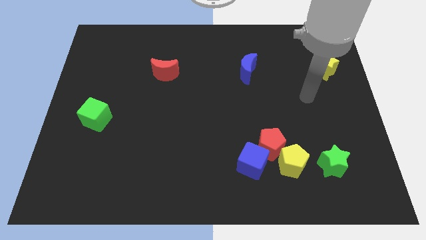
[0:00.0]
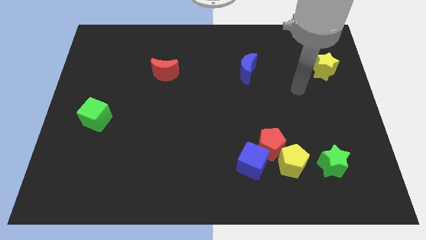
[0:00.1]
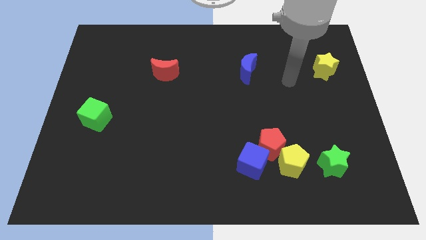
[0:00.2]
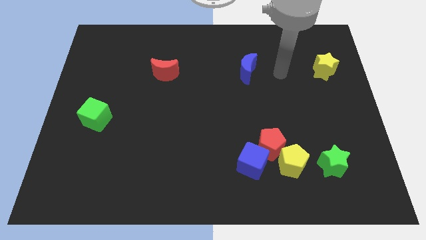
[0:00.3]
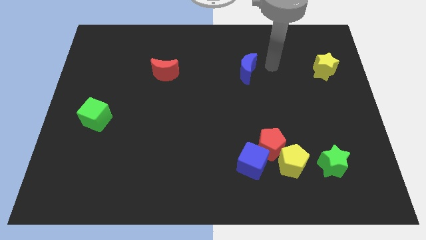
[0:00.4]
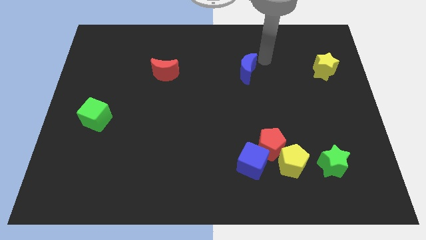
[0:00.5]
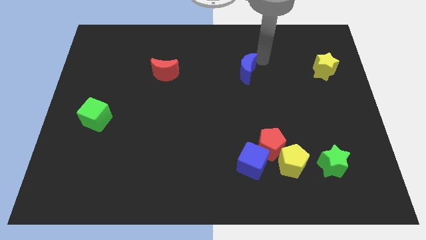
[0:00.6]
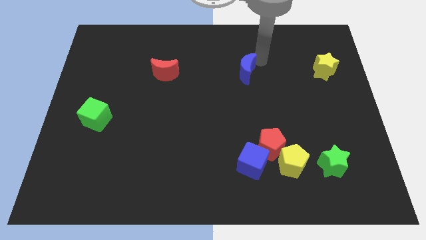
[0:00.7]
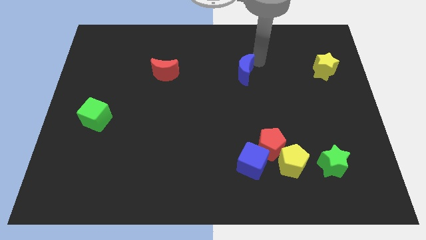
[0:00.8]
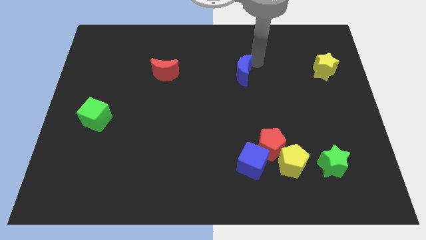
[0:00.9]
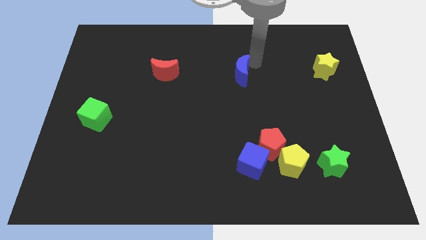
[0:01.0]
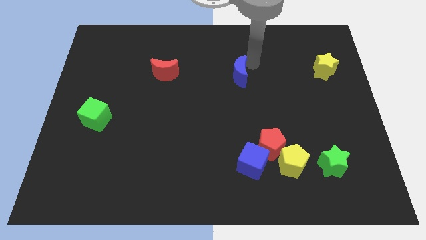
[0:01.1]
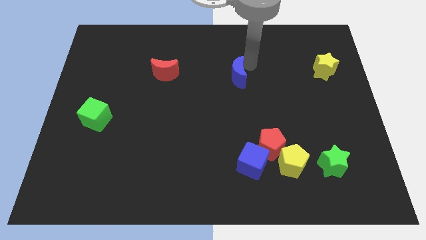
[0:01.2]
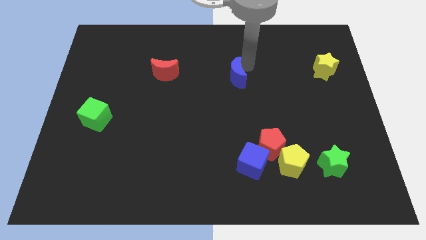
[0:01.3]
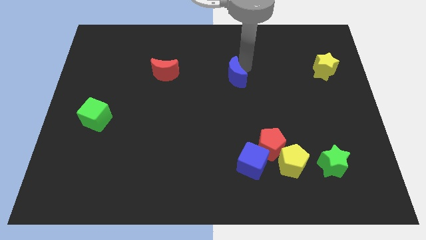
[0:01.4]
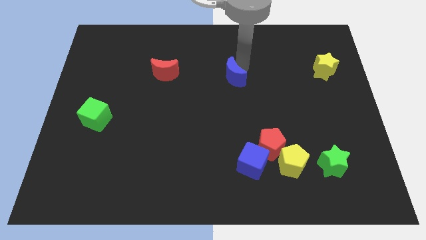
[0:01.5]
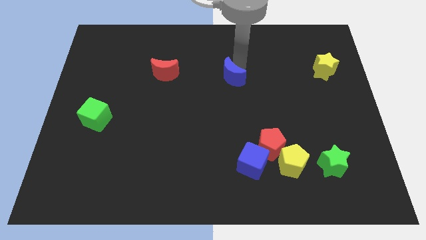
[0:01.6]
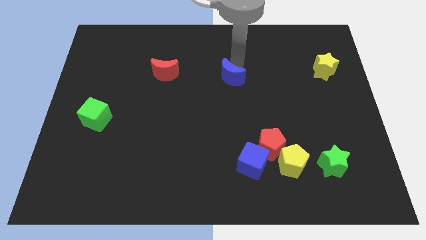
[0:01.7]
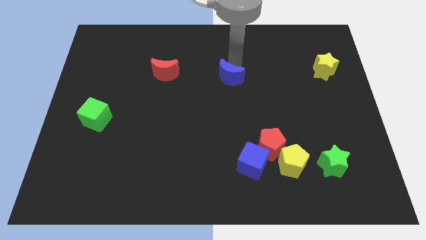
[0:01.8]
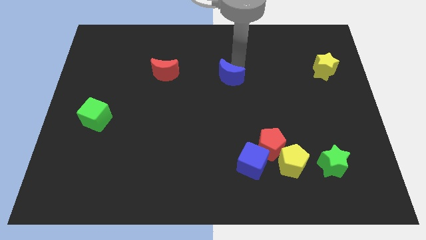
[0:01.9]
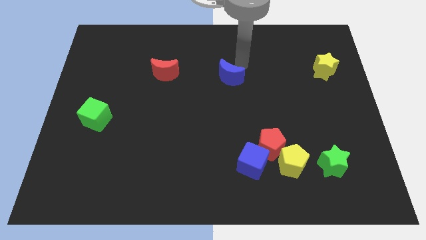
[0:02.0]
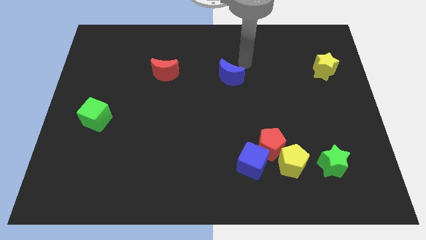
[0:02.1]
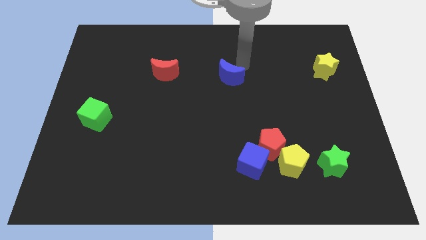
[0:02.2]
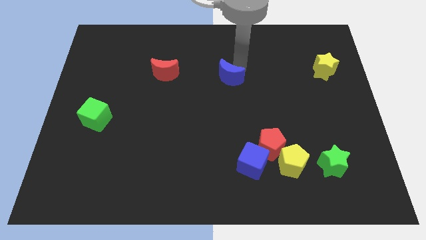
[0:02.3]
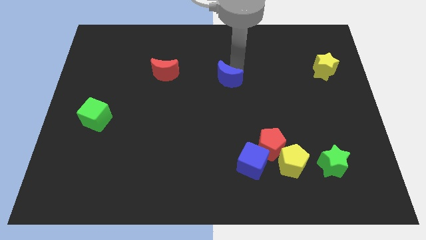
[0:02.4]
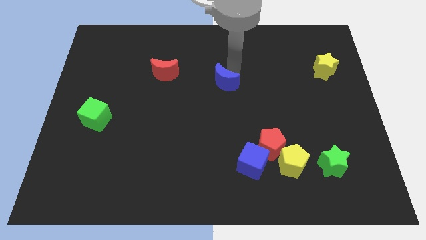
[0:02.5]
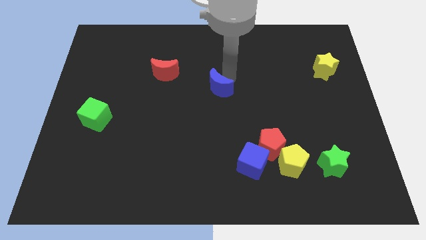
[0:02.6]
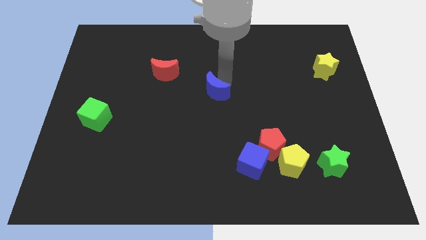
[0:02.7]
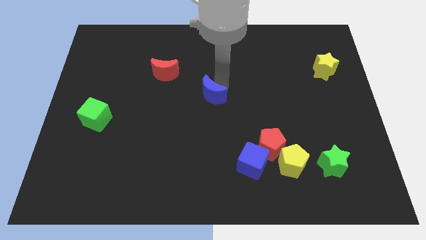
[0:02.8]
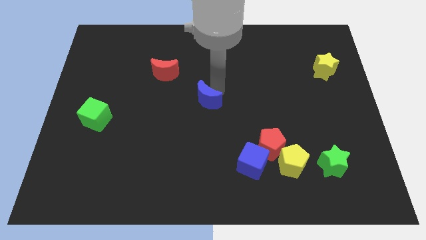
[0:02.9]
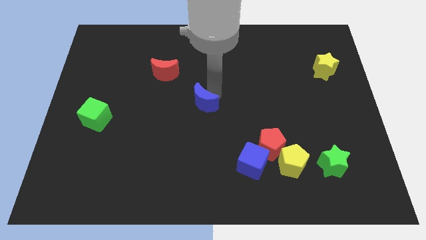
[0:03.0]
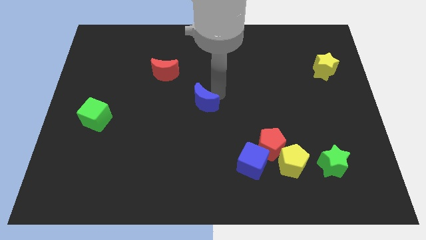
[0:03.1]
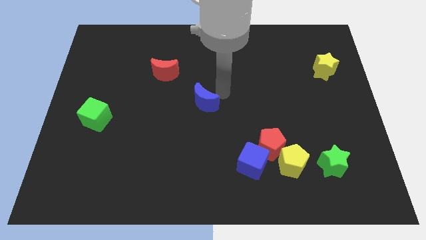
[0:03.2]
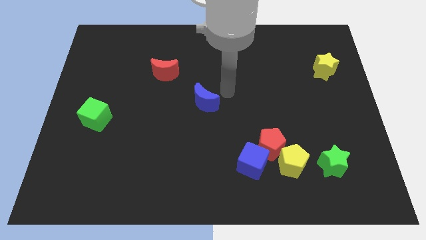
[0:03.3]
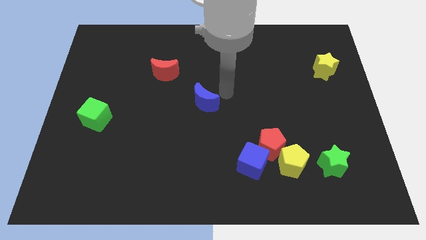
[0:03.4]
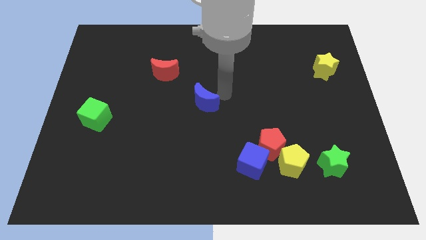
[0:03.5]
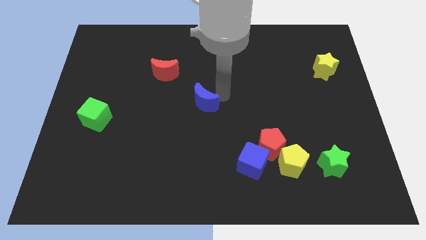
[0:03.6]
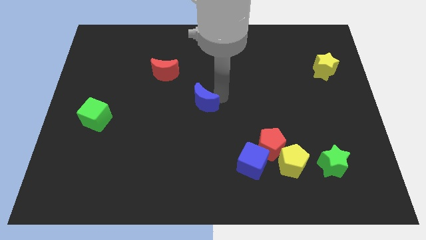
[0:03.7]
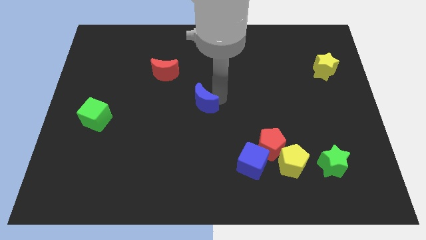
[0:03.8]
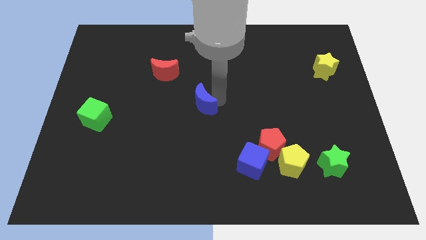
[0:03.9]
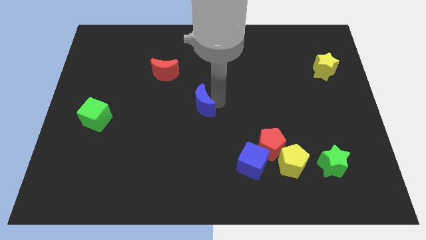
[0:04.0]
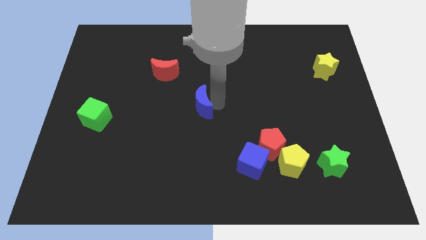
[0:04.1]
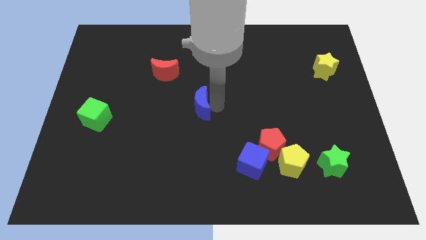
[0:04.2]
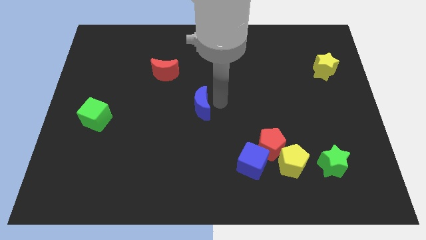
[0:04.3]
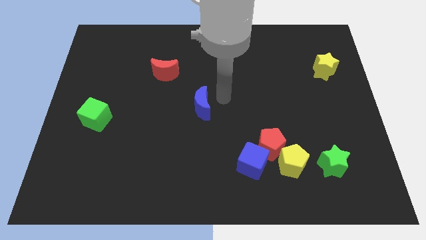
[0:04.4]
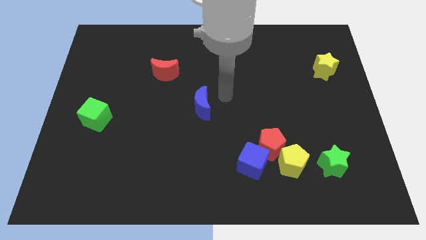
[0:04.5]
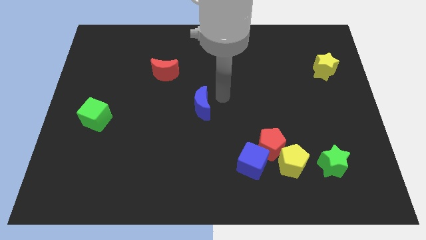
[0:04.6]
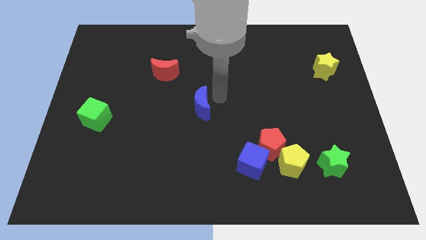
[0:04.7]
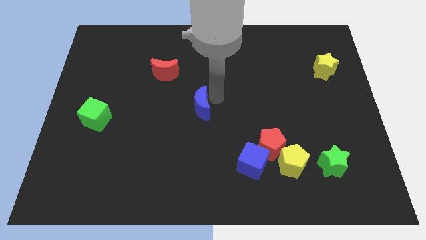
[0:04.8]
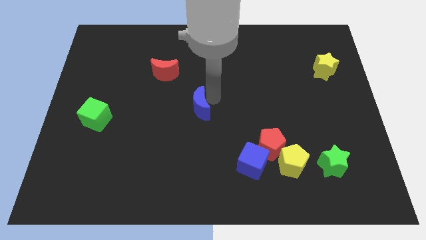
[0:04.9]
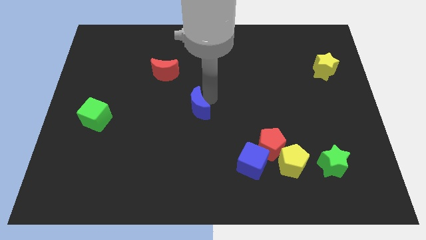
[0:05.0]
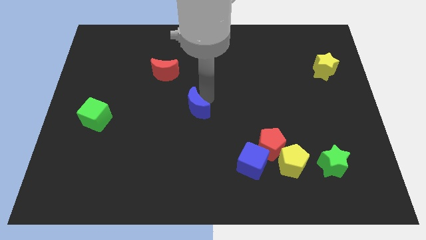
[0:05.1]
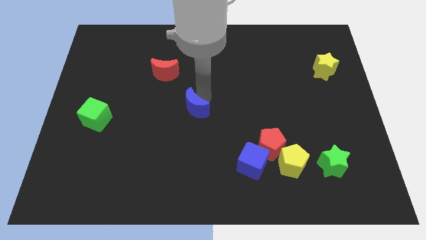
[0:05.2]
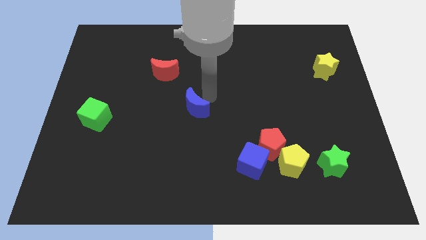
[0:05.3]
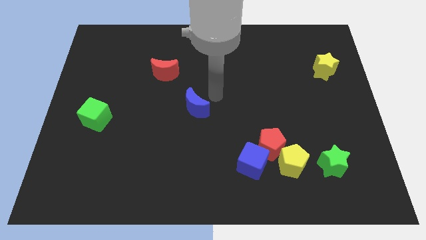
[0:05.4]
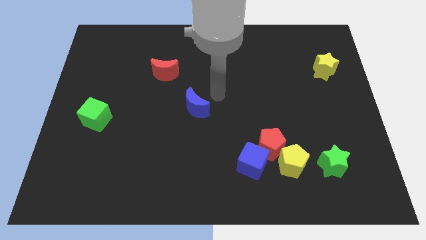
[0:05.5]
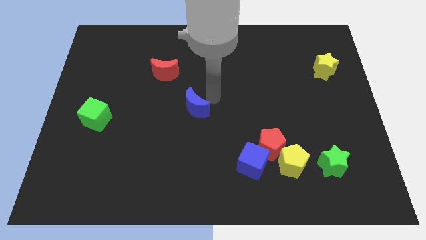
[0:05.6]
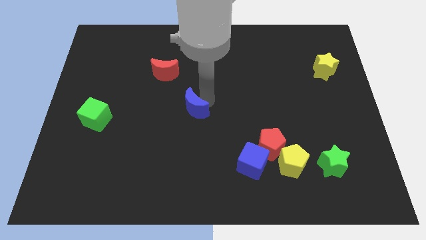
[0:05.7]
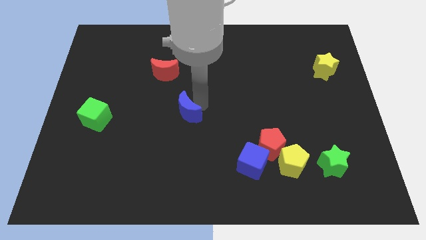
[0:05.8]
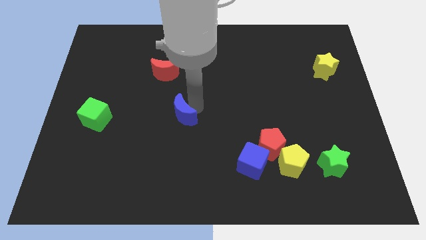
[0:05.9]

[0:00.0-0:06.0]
move the blue moon downwards and to the left

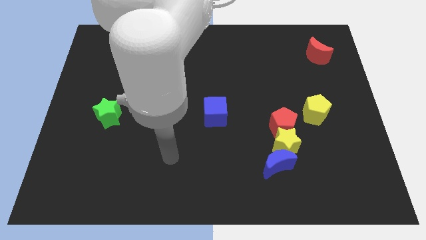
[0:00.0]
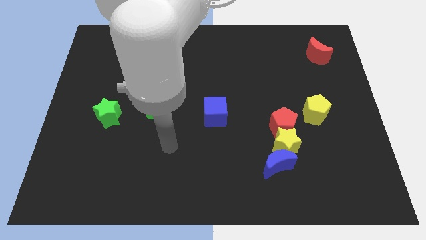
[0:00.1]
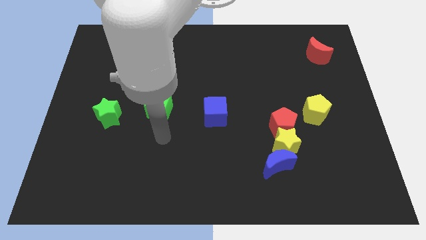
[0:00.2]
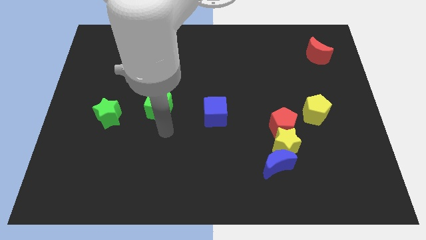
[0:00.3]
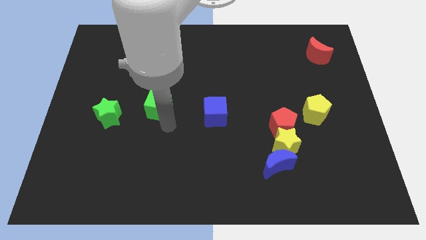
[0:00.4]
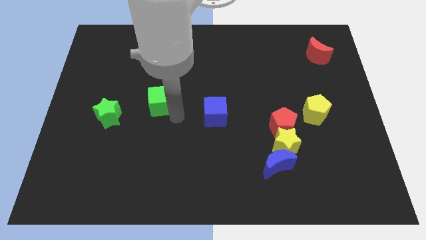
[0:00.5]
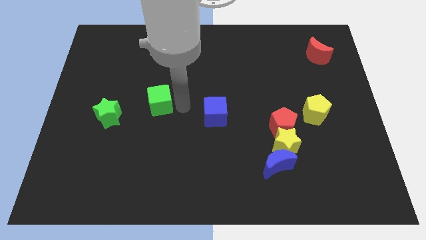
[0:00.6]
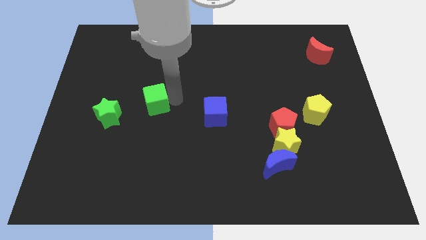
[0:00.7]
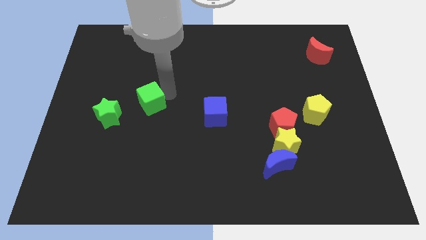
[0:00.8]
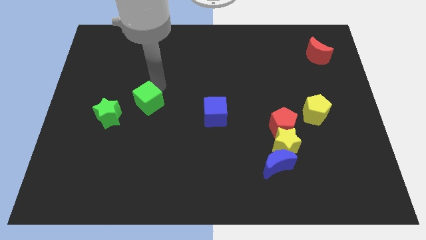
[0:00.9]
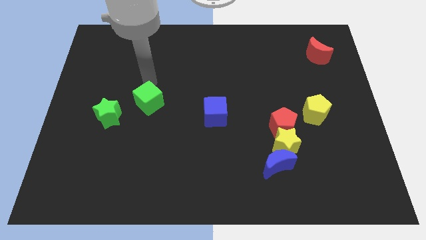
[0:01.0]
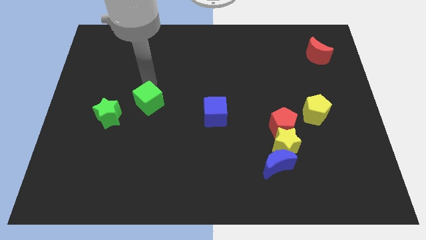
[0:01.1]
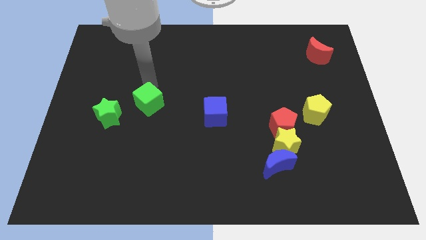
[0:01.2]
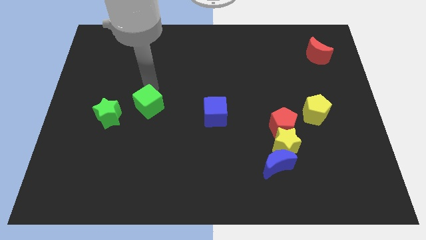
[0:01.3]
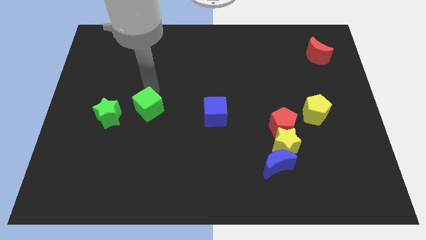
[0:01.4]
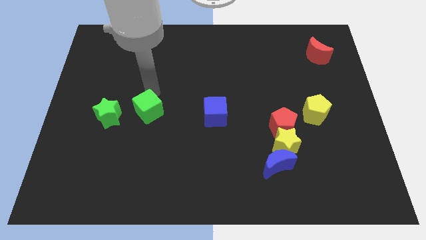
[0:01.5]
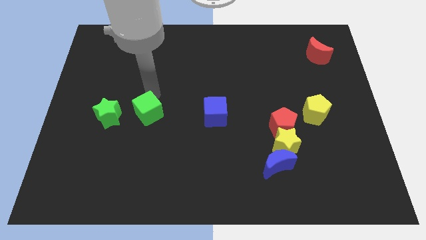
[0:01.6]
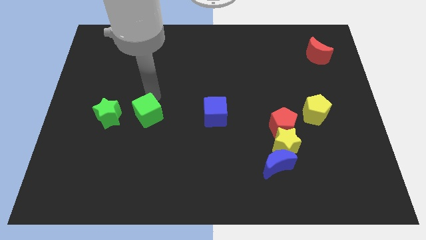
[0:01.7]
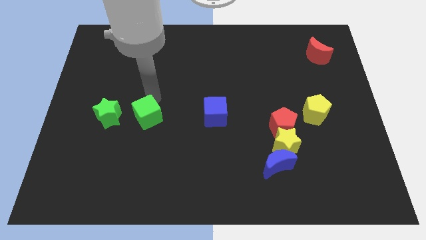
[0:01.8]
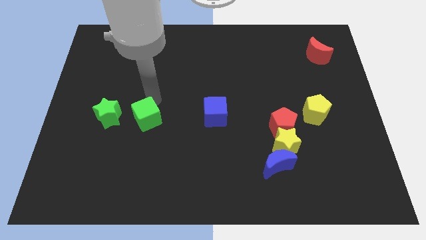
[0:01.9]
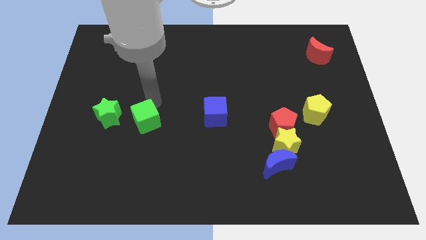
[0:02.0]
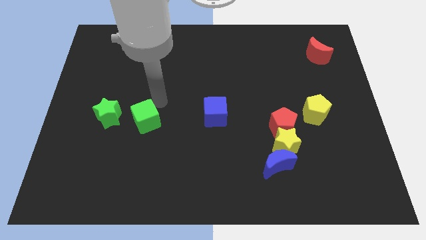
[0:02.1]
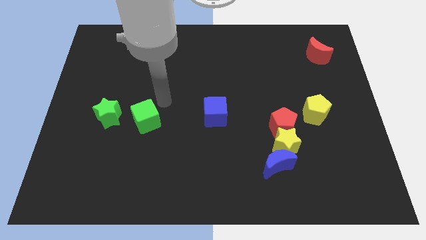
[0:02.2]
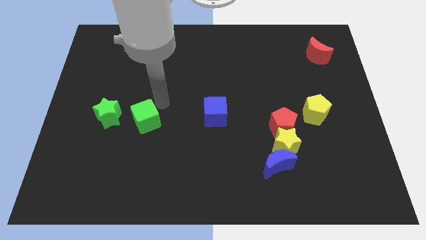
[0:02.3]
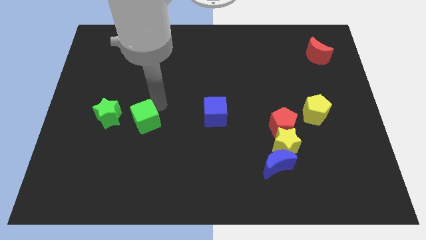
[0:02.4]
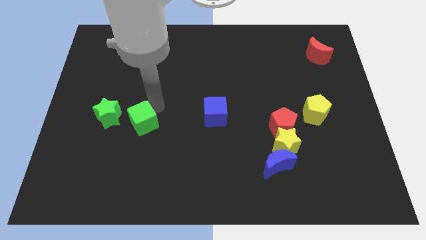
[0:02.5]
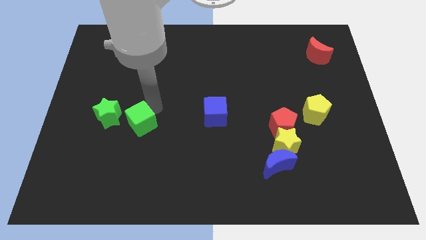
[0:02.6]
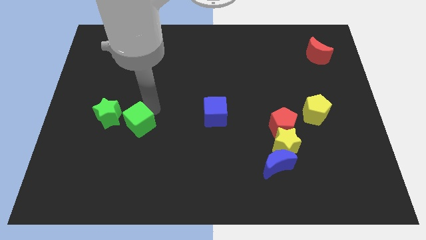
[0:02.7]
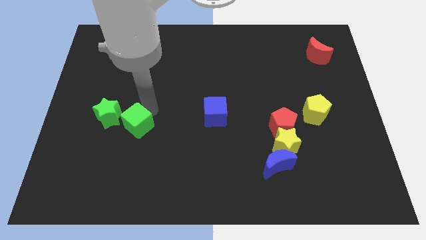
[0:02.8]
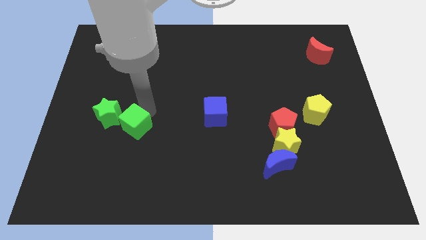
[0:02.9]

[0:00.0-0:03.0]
slide the green cube down and to the left a little bit
